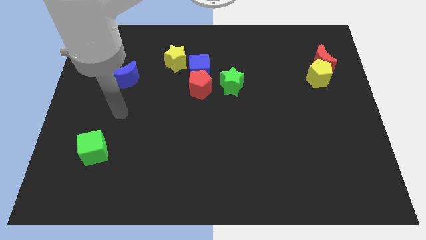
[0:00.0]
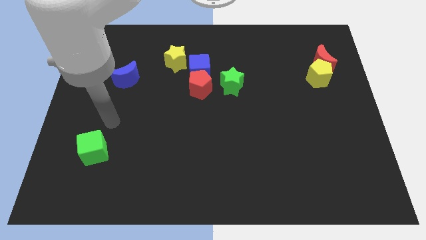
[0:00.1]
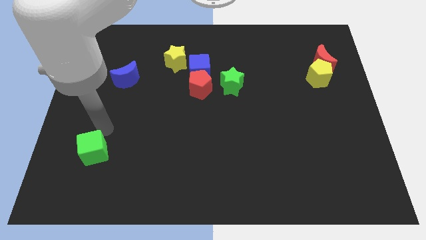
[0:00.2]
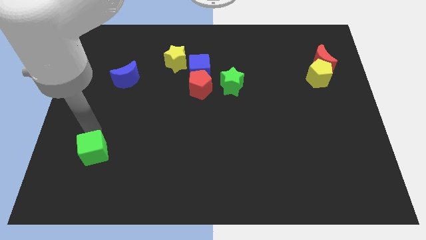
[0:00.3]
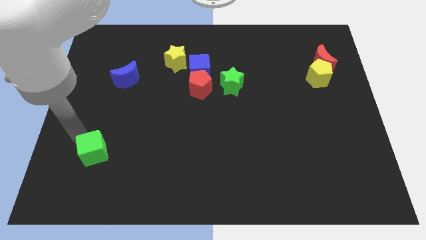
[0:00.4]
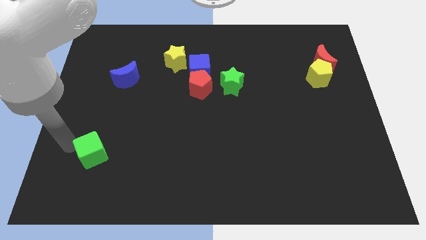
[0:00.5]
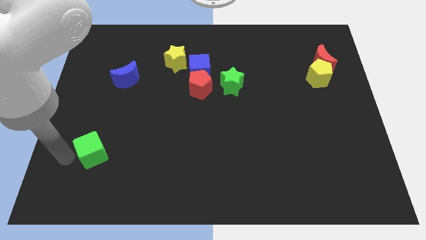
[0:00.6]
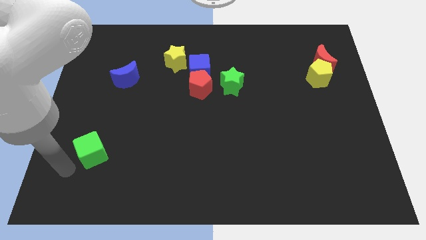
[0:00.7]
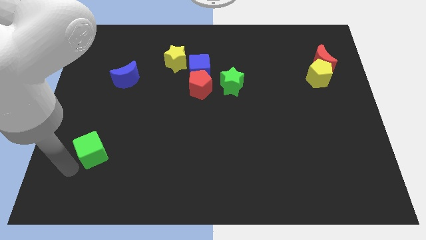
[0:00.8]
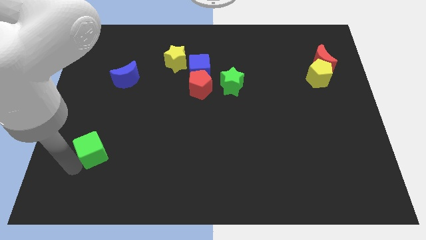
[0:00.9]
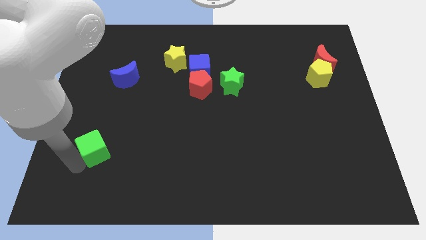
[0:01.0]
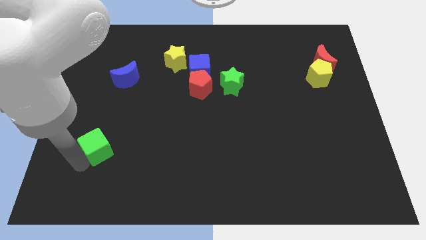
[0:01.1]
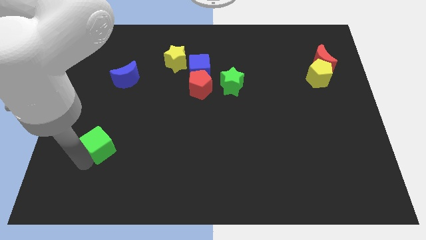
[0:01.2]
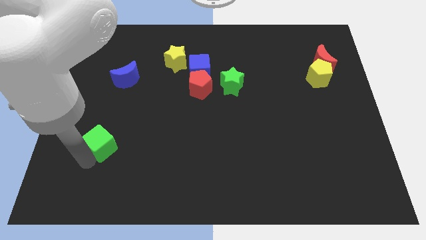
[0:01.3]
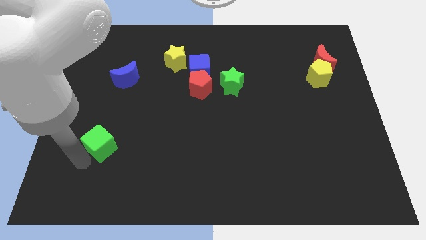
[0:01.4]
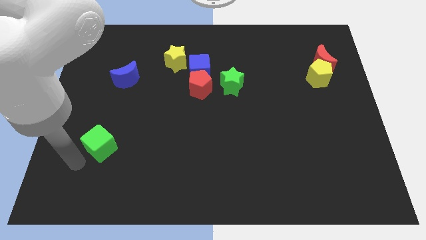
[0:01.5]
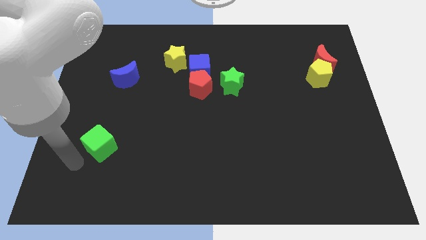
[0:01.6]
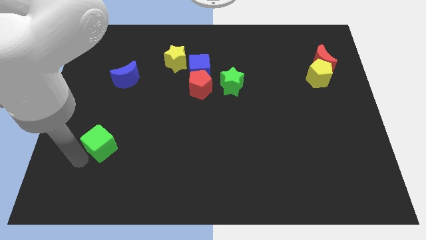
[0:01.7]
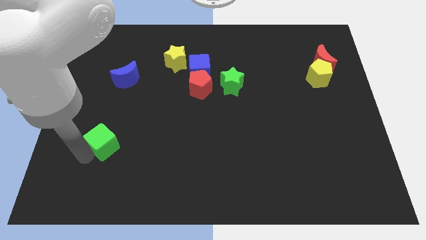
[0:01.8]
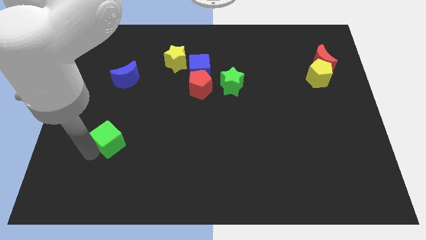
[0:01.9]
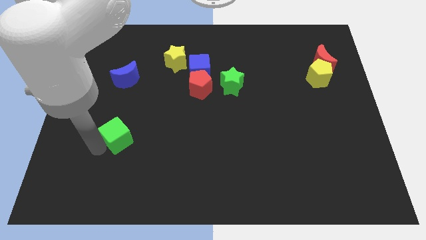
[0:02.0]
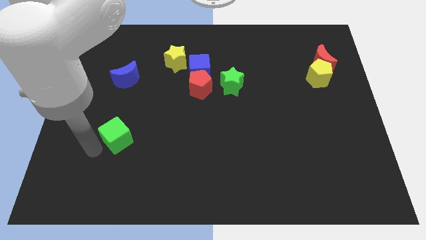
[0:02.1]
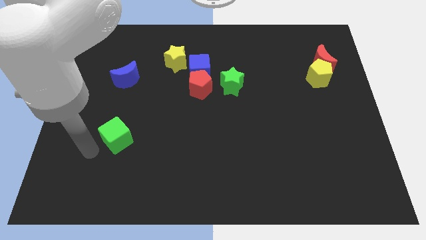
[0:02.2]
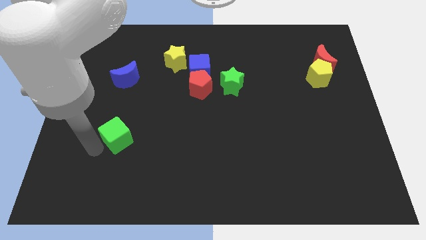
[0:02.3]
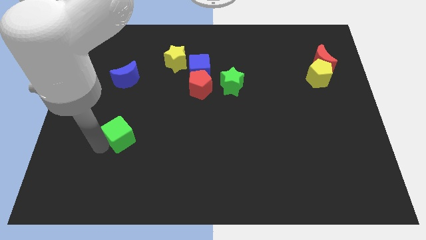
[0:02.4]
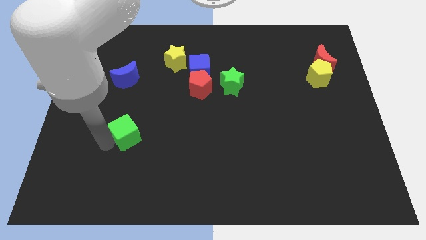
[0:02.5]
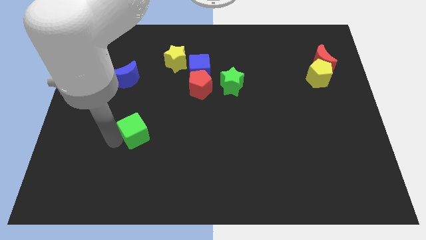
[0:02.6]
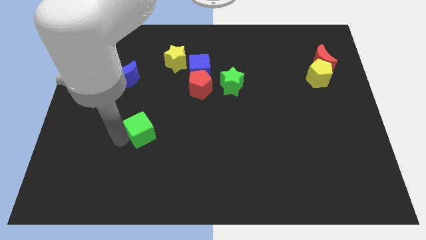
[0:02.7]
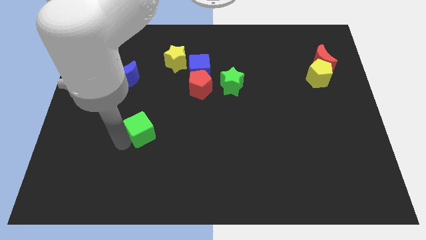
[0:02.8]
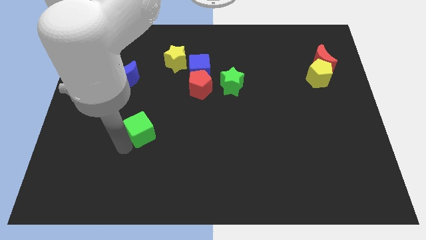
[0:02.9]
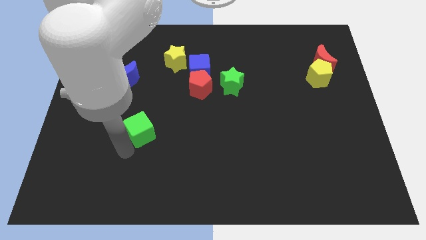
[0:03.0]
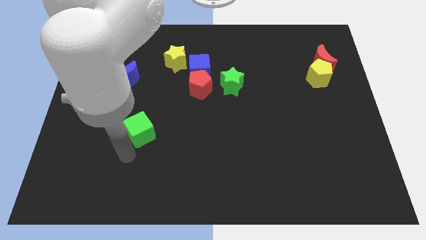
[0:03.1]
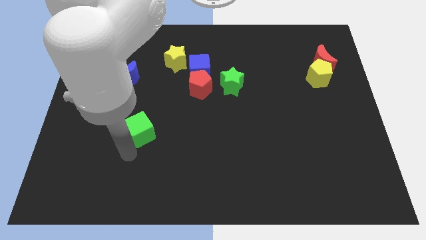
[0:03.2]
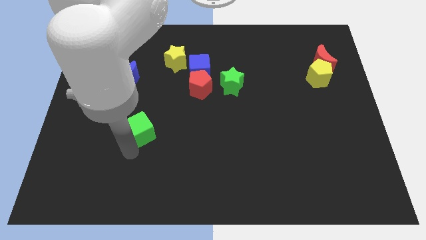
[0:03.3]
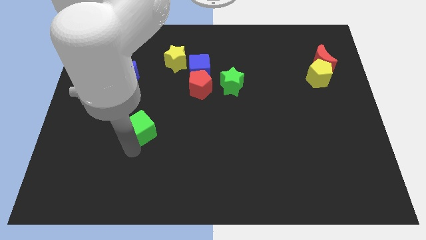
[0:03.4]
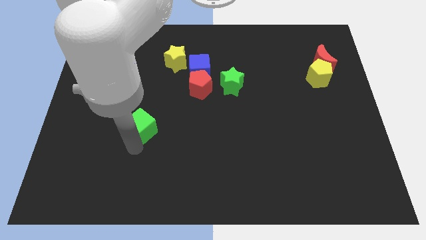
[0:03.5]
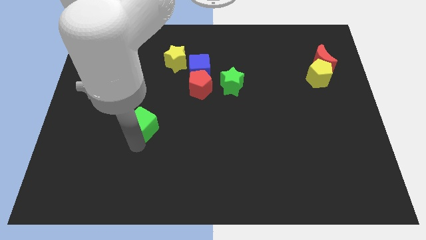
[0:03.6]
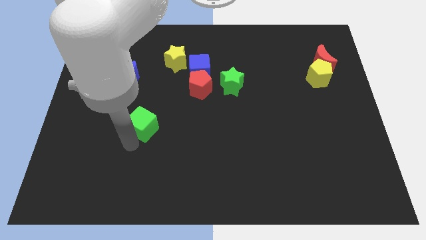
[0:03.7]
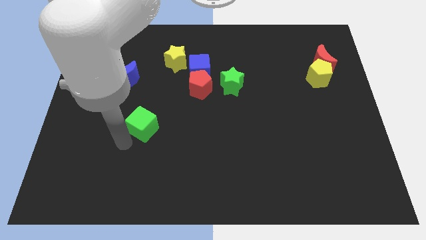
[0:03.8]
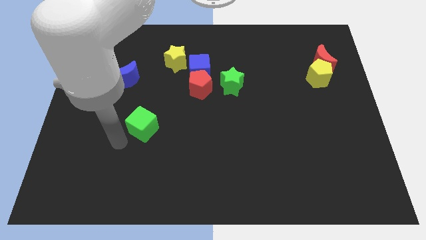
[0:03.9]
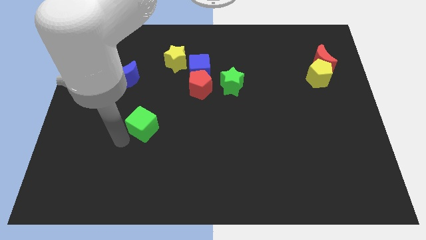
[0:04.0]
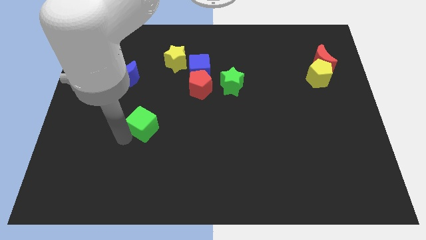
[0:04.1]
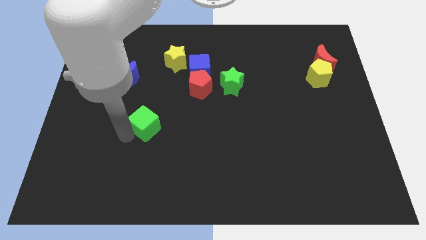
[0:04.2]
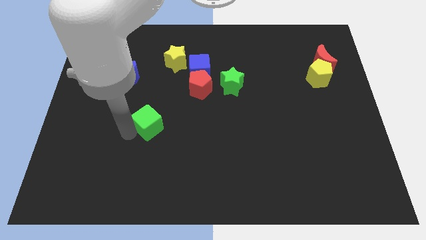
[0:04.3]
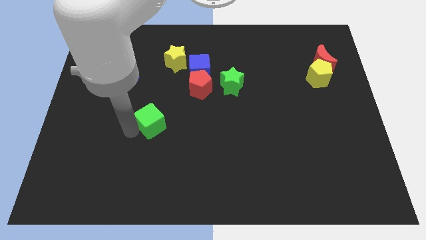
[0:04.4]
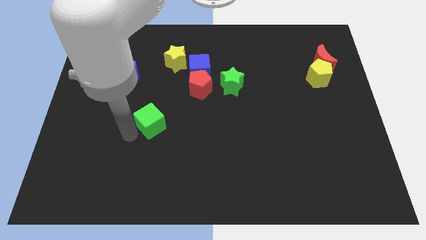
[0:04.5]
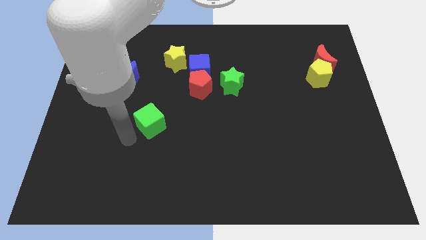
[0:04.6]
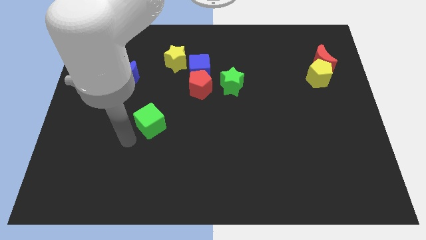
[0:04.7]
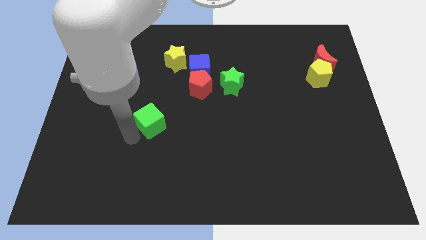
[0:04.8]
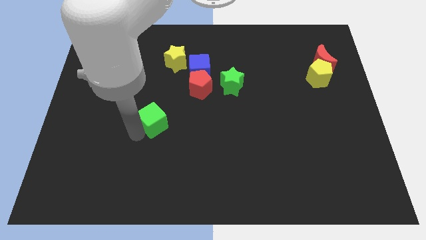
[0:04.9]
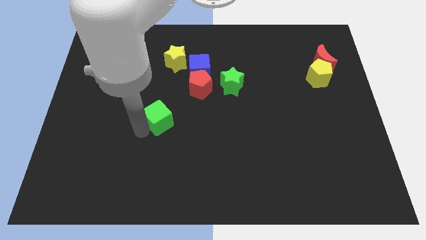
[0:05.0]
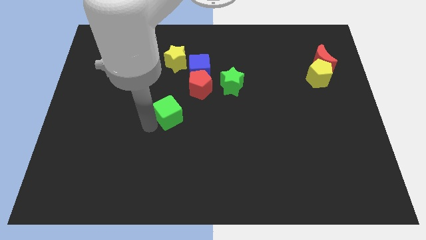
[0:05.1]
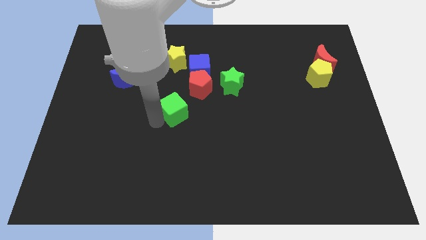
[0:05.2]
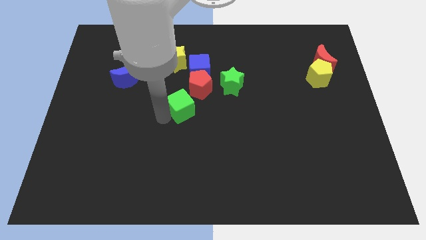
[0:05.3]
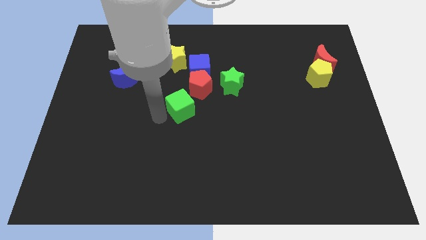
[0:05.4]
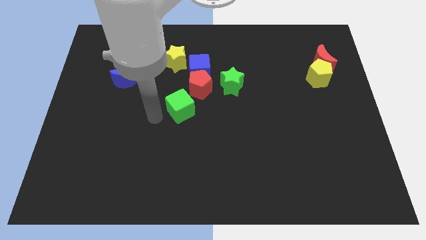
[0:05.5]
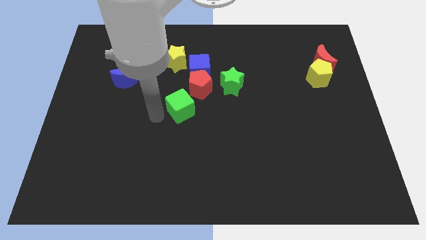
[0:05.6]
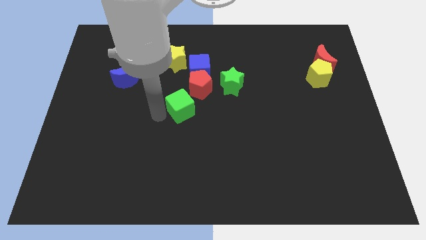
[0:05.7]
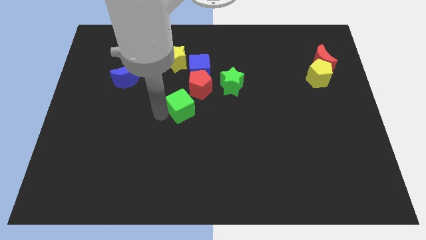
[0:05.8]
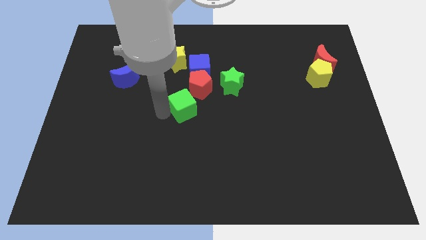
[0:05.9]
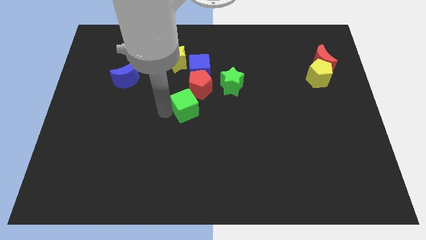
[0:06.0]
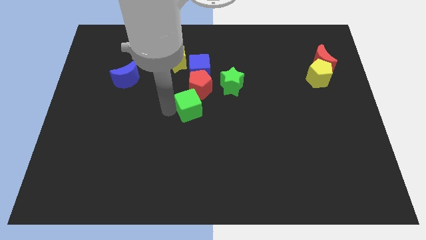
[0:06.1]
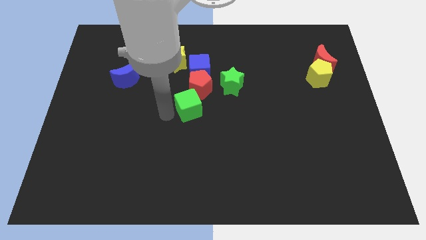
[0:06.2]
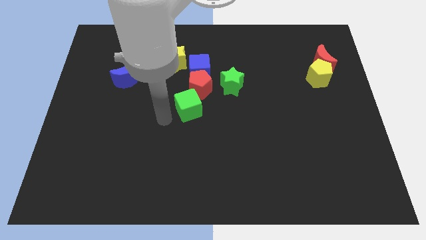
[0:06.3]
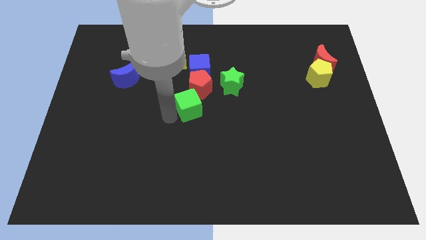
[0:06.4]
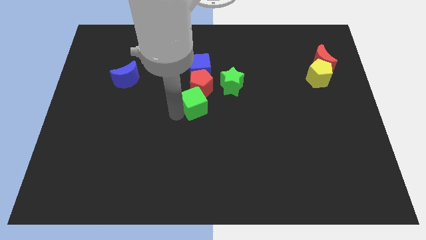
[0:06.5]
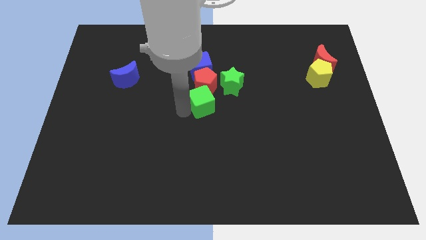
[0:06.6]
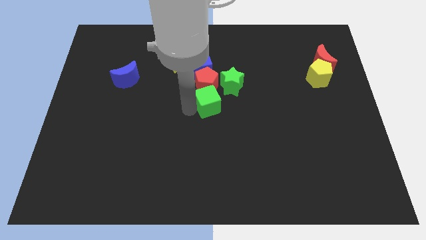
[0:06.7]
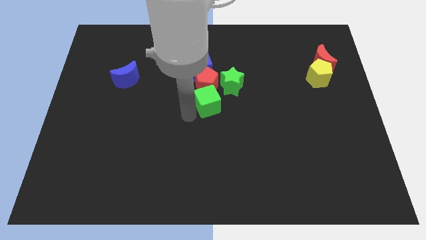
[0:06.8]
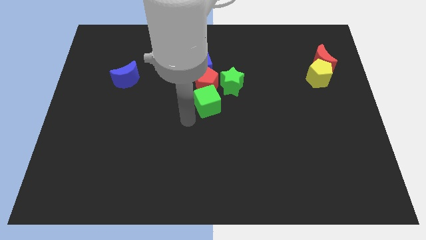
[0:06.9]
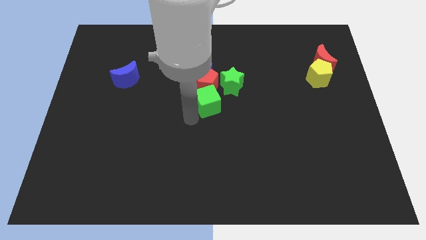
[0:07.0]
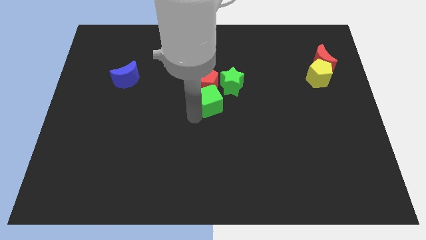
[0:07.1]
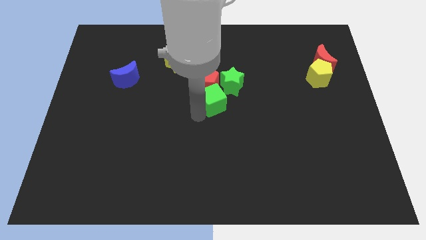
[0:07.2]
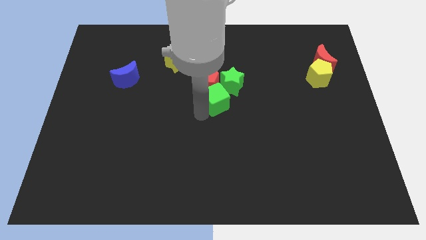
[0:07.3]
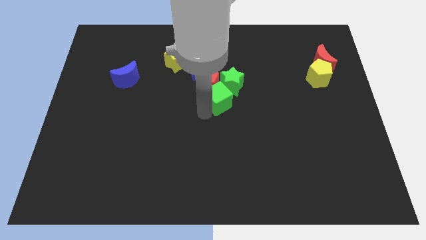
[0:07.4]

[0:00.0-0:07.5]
push the green cube to the green star
